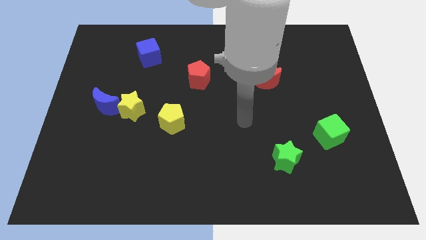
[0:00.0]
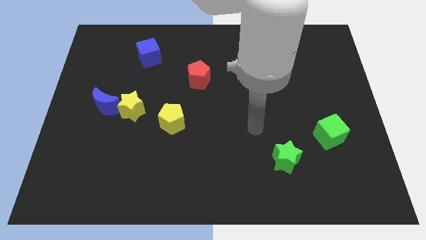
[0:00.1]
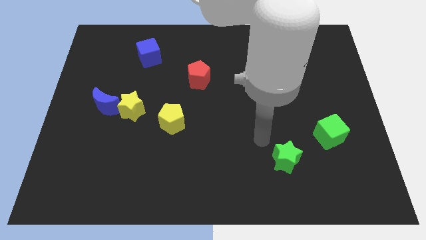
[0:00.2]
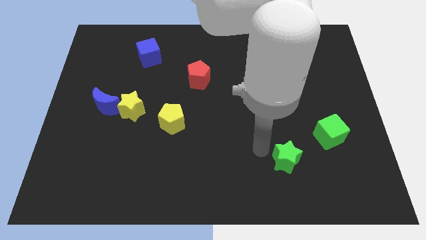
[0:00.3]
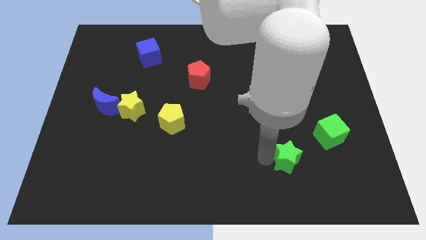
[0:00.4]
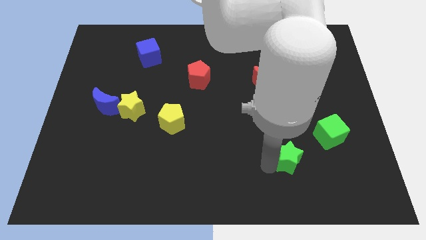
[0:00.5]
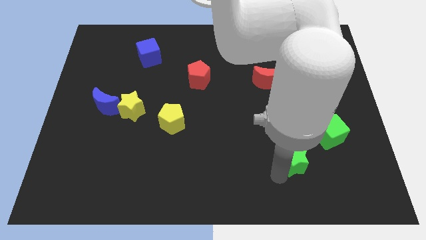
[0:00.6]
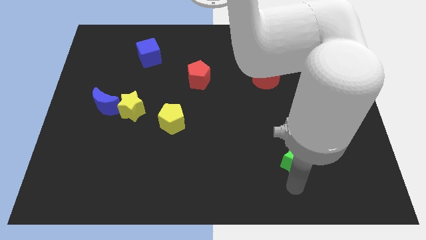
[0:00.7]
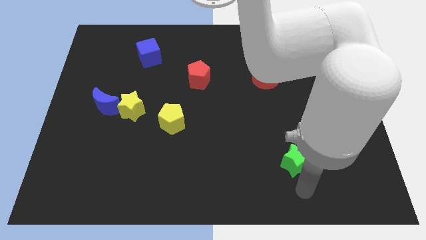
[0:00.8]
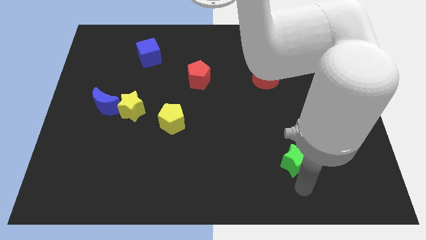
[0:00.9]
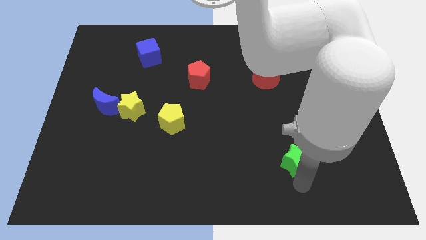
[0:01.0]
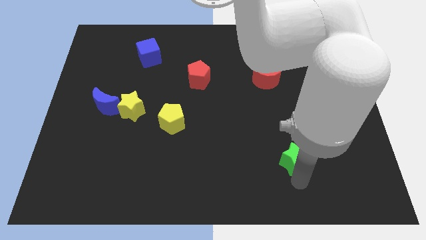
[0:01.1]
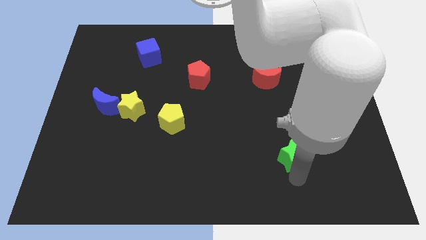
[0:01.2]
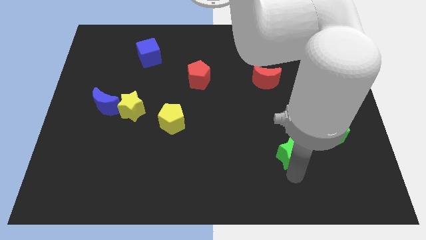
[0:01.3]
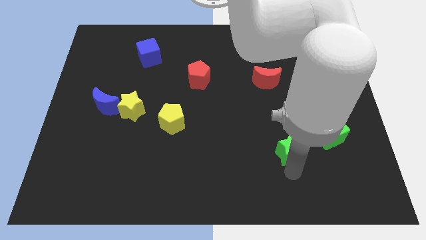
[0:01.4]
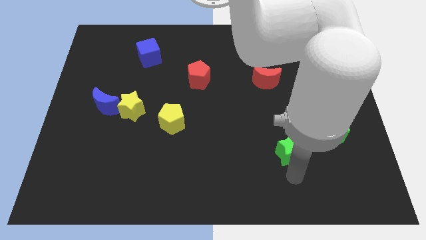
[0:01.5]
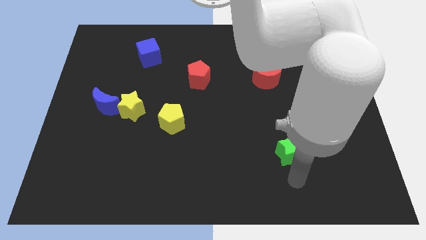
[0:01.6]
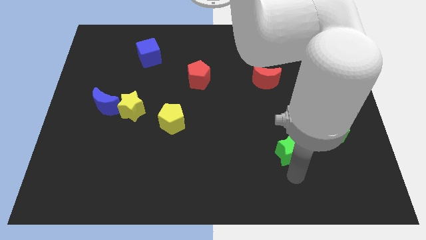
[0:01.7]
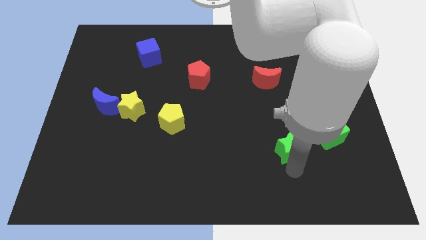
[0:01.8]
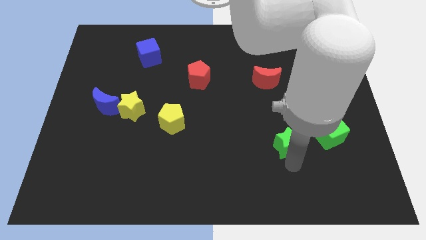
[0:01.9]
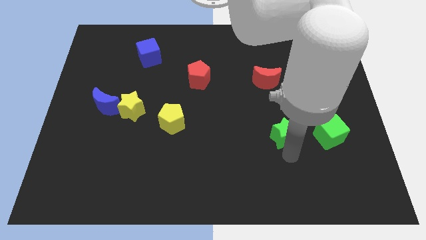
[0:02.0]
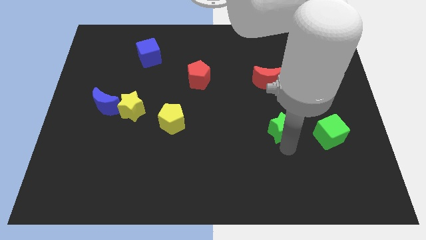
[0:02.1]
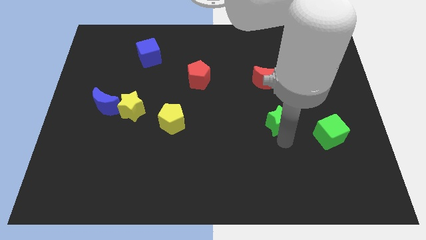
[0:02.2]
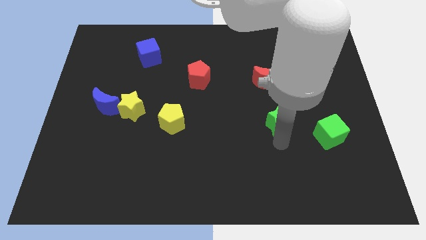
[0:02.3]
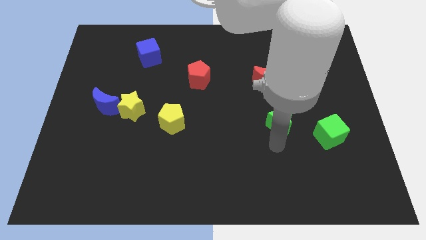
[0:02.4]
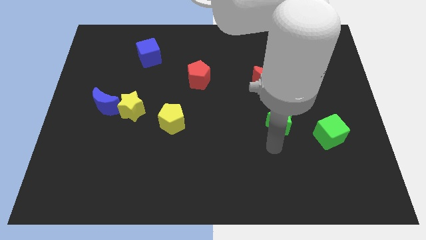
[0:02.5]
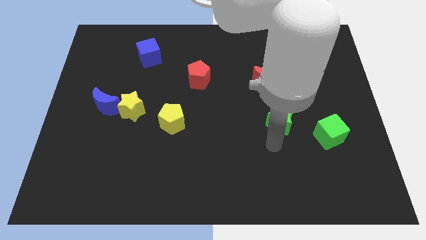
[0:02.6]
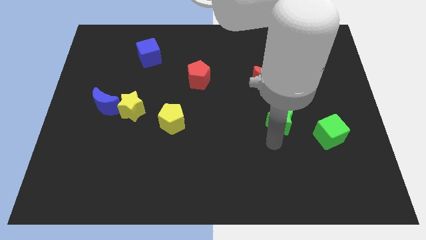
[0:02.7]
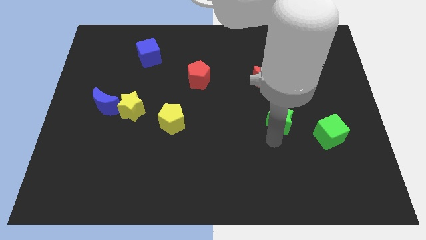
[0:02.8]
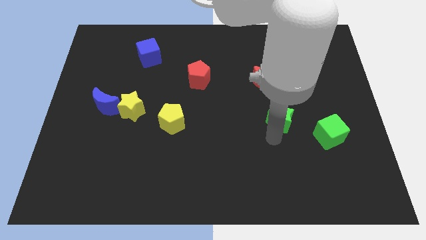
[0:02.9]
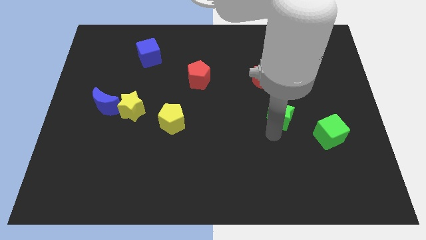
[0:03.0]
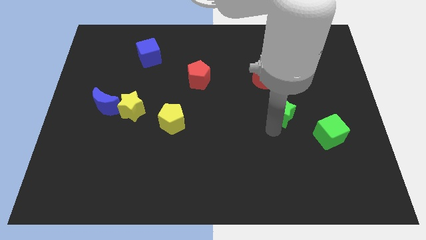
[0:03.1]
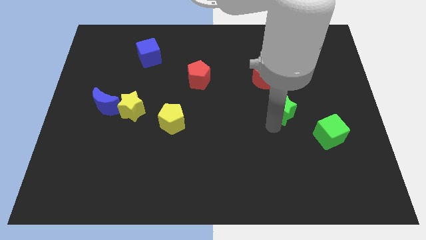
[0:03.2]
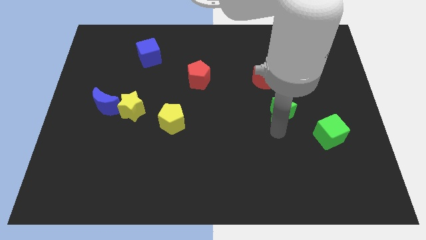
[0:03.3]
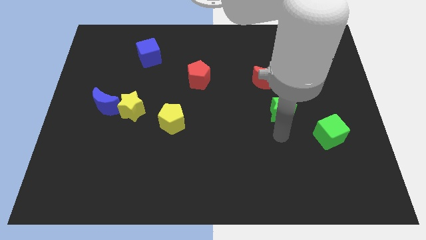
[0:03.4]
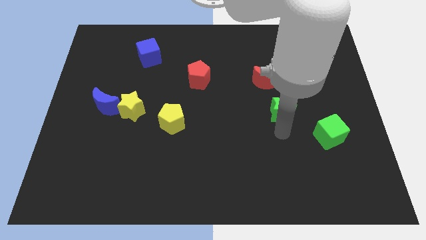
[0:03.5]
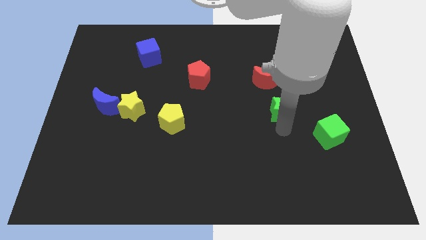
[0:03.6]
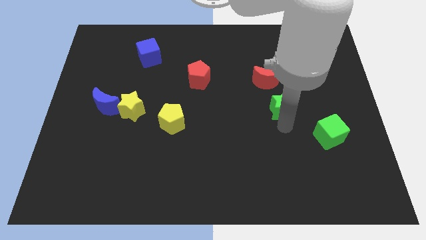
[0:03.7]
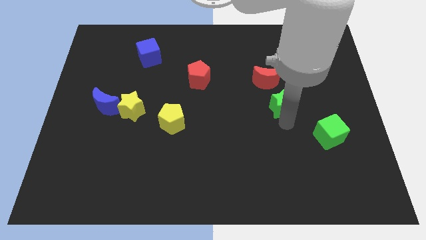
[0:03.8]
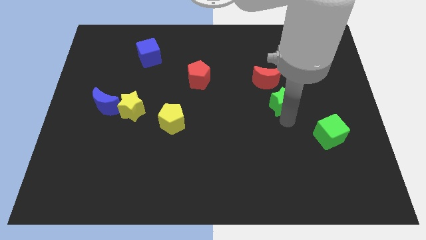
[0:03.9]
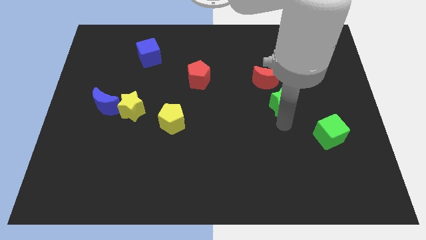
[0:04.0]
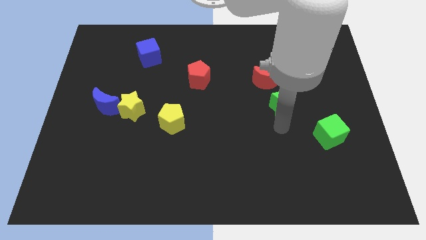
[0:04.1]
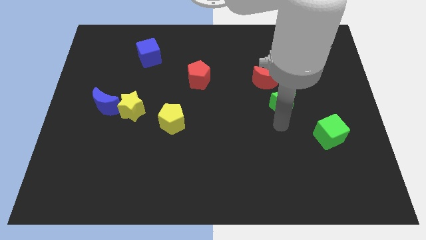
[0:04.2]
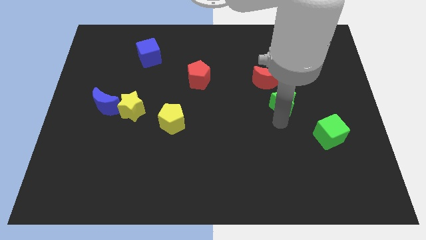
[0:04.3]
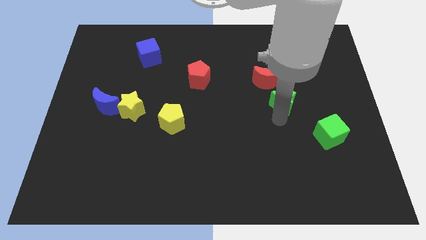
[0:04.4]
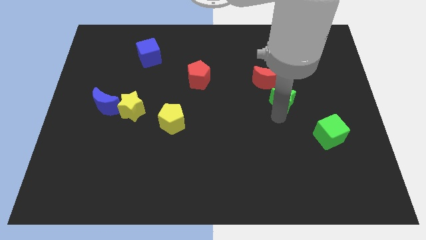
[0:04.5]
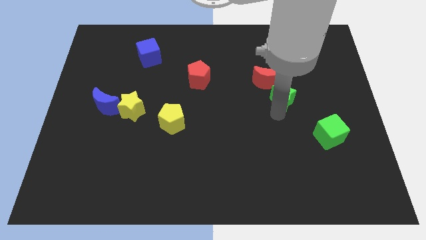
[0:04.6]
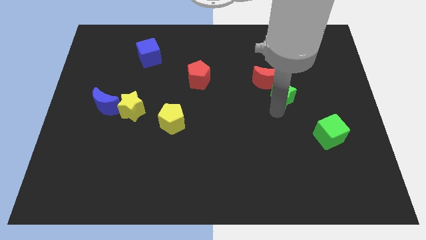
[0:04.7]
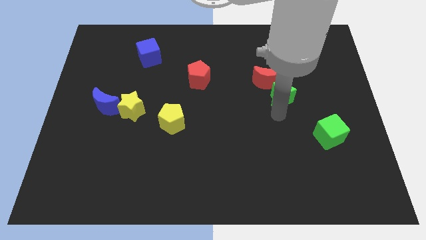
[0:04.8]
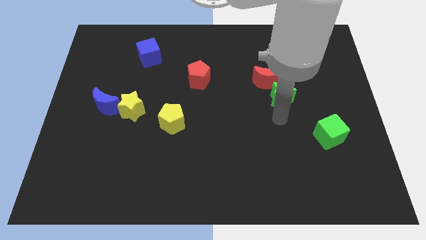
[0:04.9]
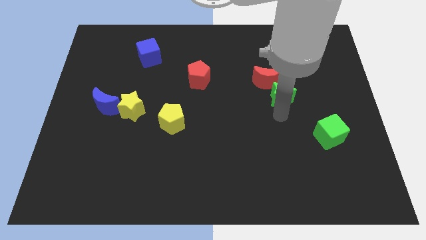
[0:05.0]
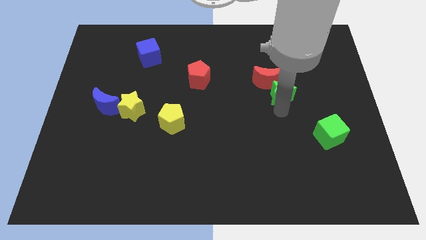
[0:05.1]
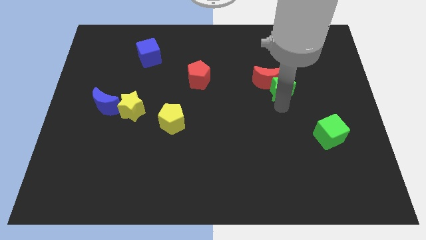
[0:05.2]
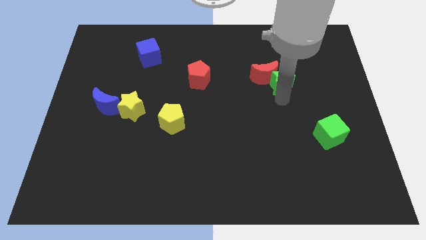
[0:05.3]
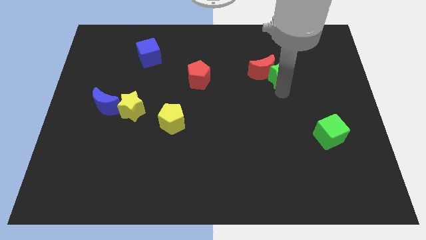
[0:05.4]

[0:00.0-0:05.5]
put the green star to the top right of the red moon

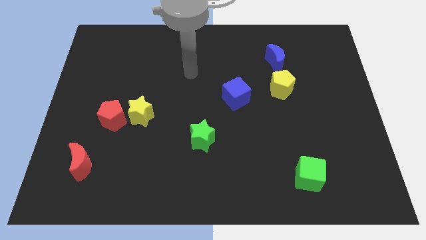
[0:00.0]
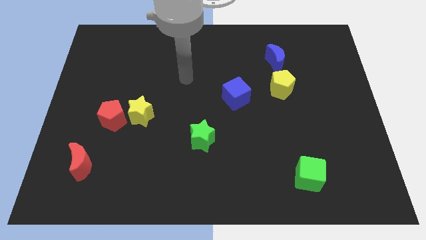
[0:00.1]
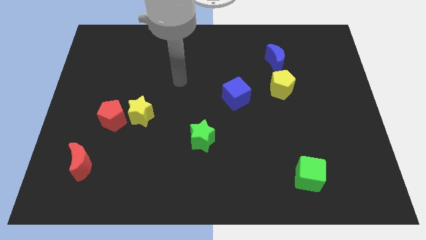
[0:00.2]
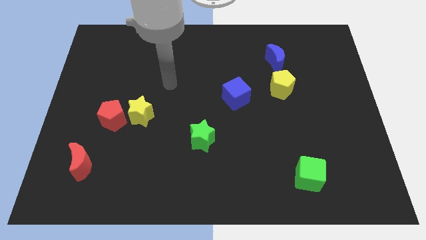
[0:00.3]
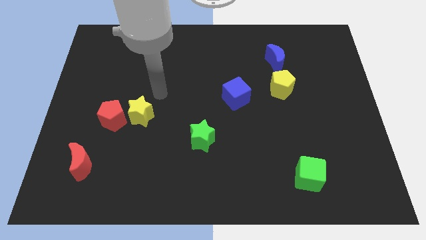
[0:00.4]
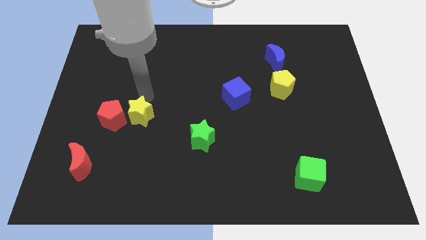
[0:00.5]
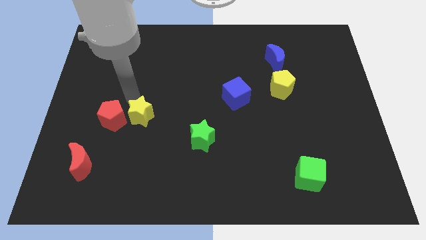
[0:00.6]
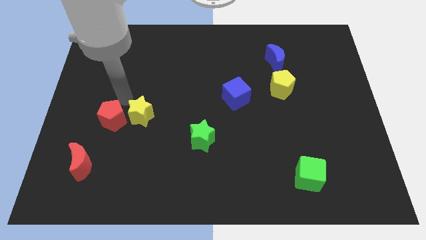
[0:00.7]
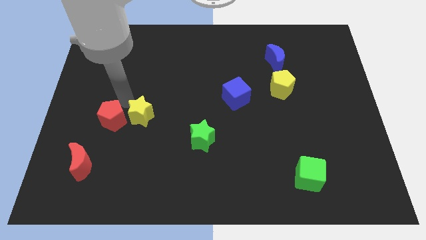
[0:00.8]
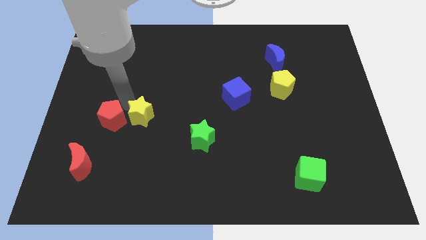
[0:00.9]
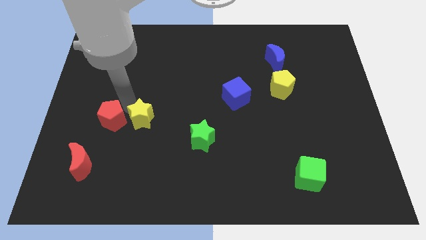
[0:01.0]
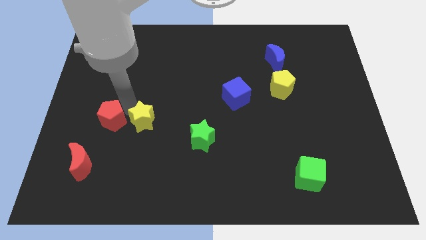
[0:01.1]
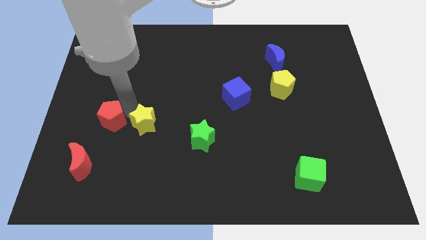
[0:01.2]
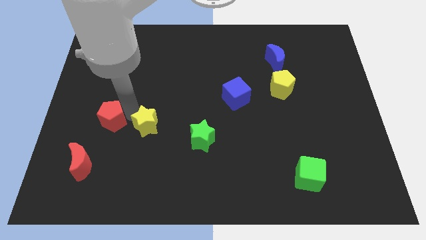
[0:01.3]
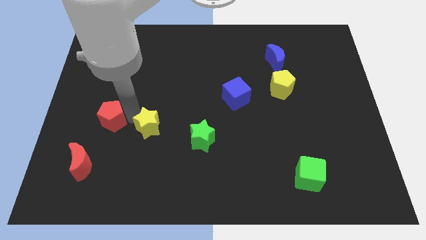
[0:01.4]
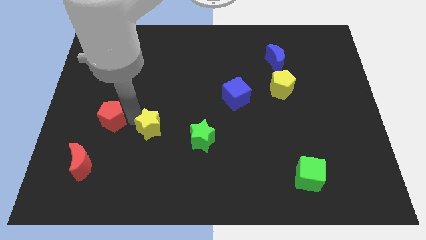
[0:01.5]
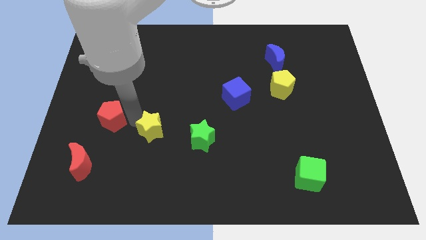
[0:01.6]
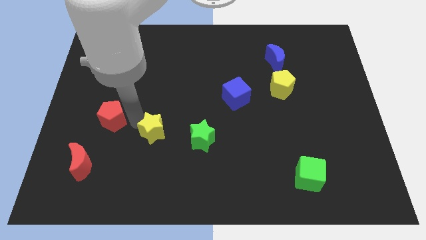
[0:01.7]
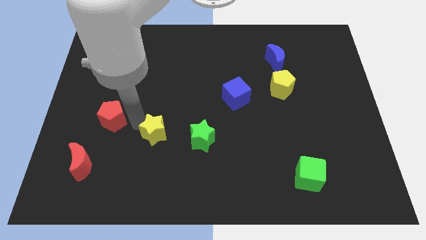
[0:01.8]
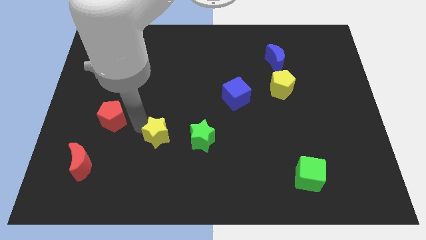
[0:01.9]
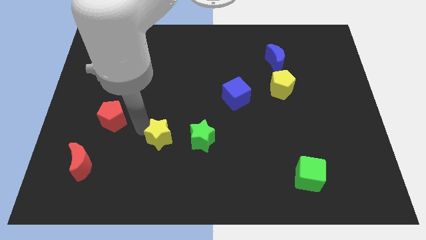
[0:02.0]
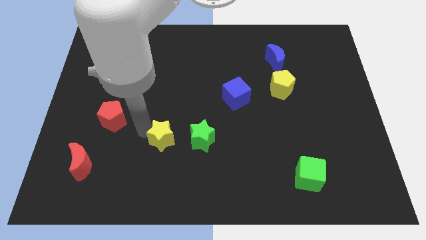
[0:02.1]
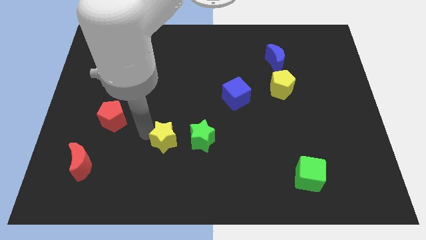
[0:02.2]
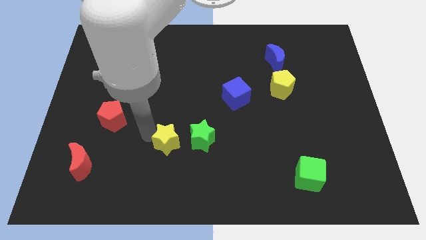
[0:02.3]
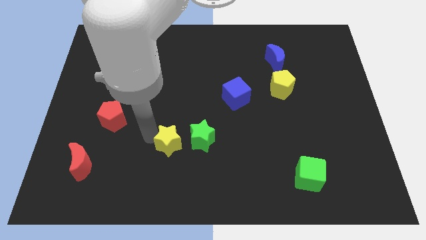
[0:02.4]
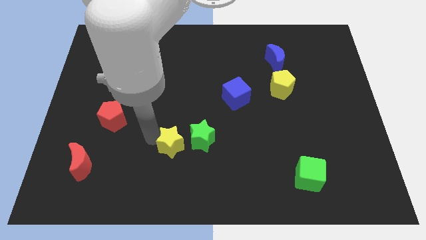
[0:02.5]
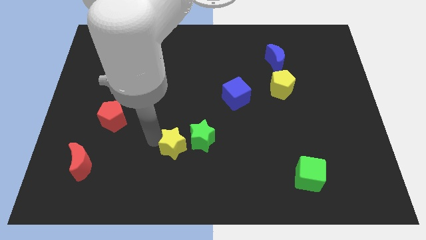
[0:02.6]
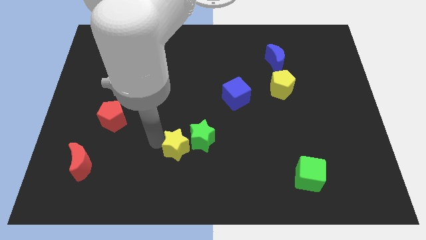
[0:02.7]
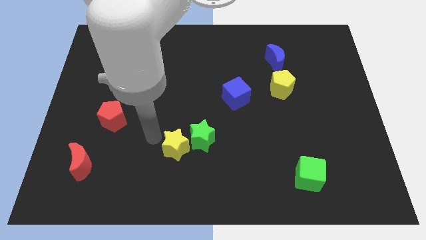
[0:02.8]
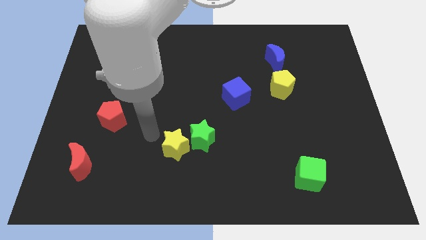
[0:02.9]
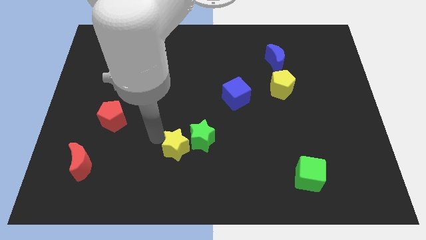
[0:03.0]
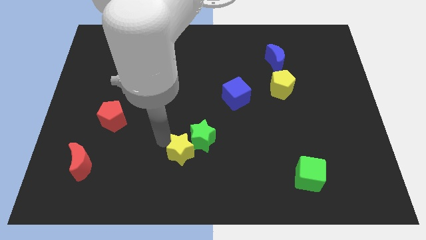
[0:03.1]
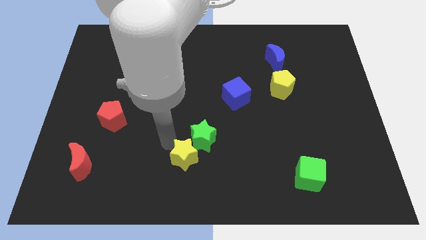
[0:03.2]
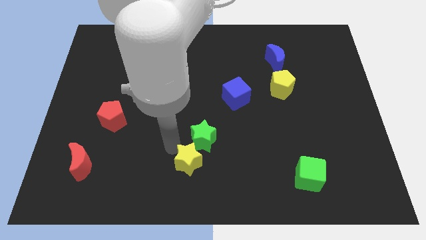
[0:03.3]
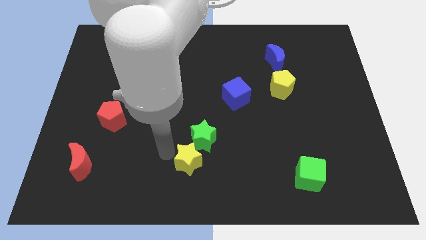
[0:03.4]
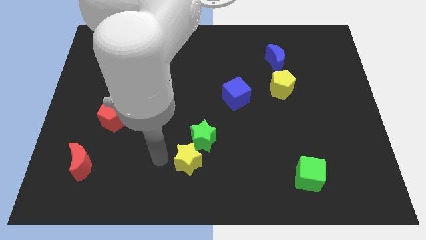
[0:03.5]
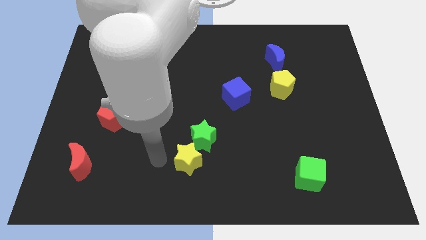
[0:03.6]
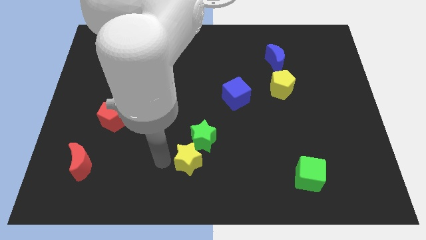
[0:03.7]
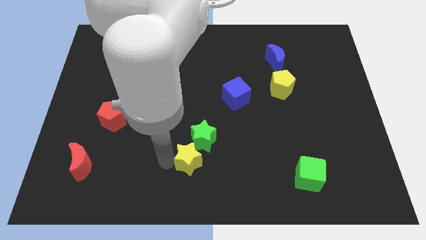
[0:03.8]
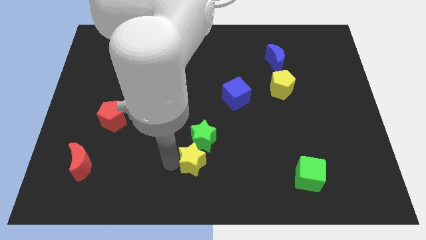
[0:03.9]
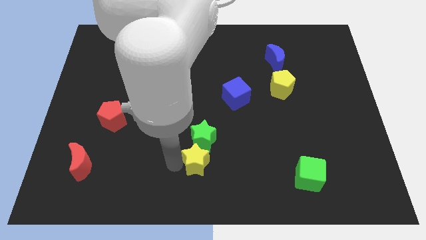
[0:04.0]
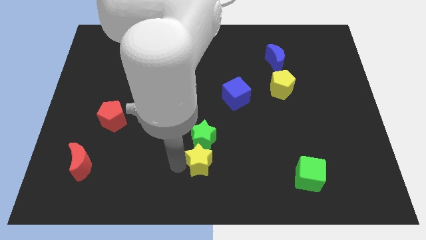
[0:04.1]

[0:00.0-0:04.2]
push the yellow star to the bottom right side of the green star
